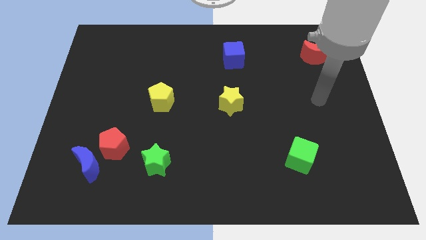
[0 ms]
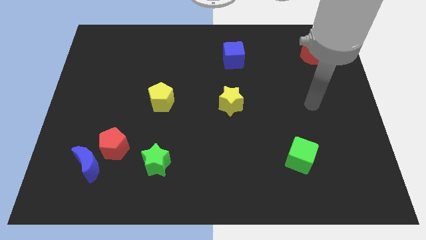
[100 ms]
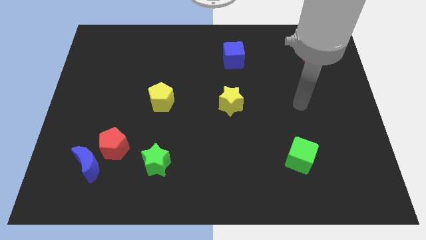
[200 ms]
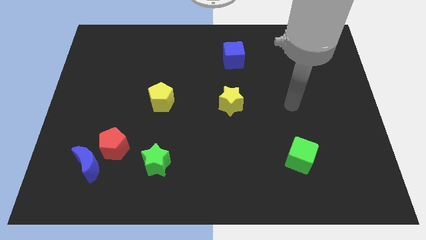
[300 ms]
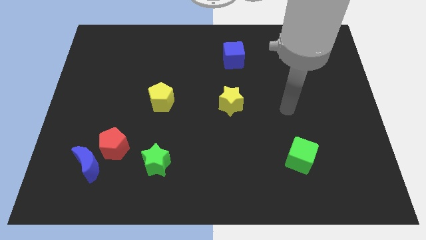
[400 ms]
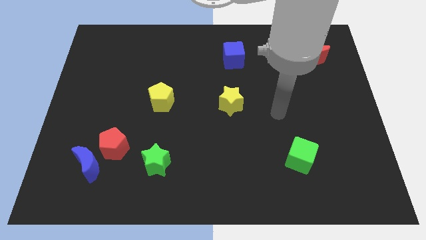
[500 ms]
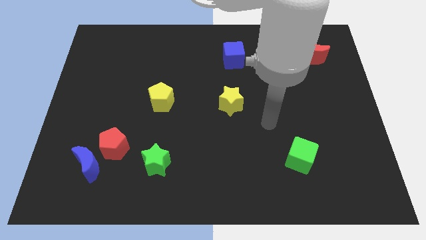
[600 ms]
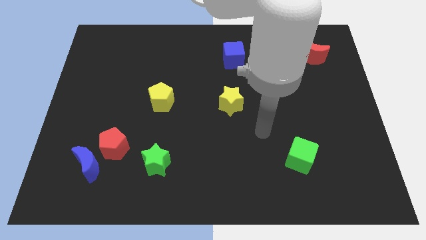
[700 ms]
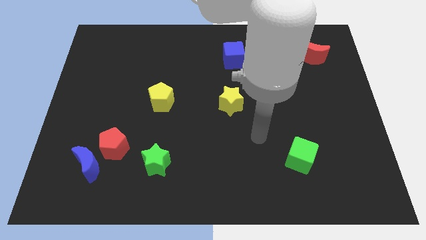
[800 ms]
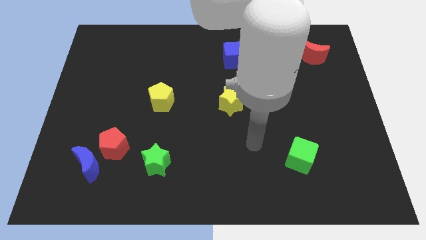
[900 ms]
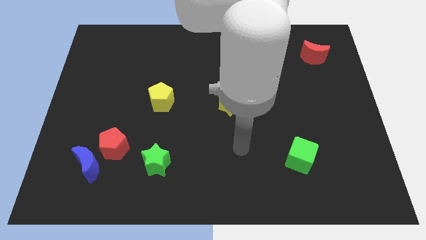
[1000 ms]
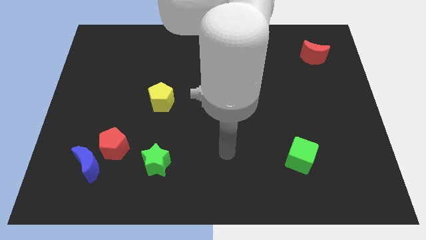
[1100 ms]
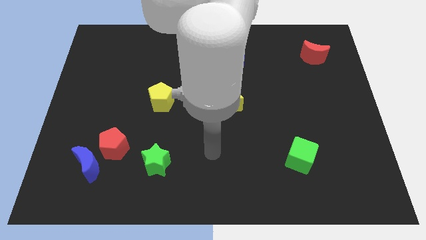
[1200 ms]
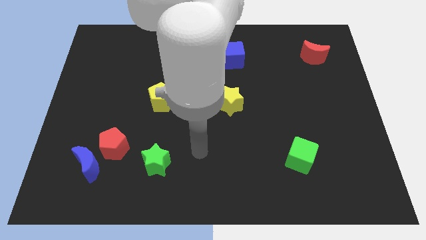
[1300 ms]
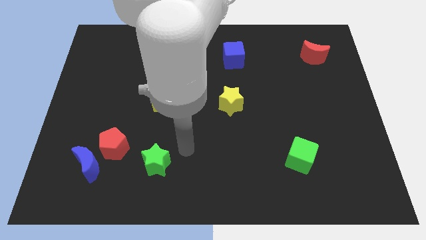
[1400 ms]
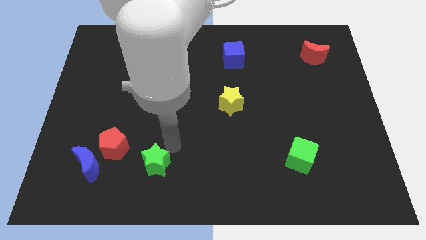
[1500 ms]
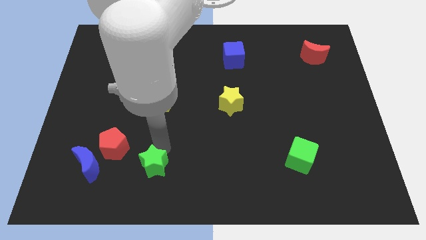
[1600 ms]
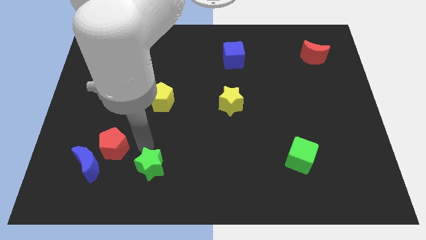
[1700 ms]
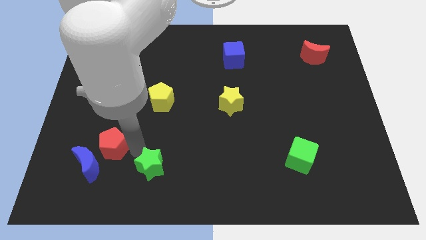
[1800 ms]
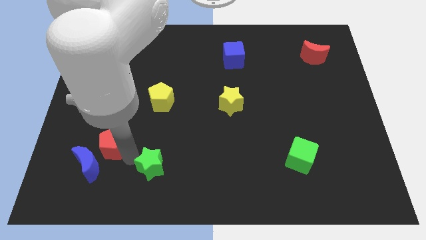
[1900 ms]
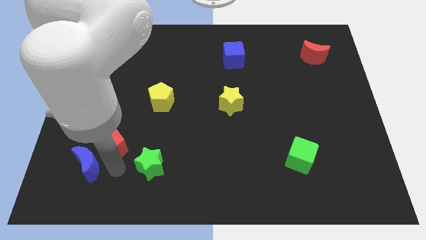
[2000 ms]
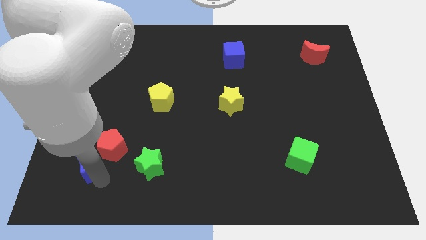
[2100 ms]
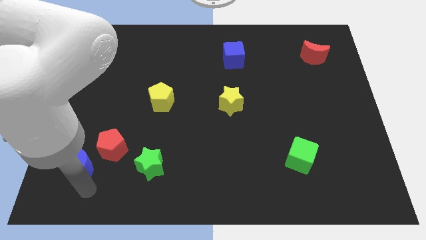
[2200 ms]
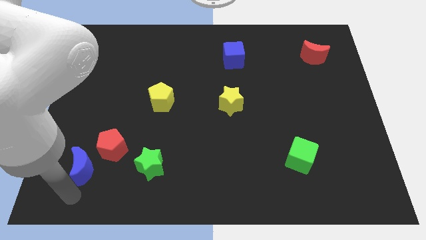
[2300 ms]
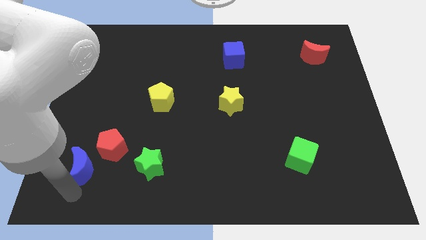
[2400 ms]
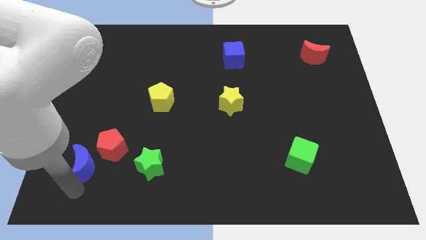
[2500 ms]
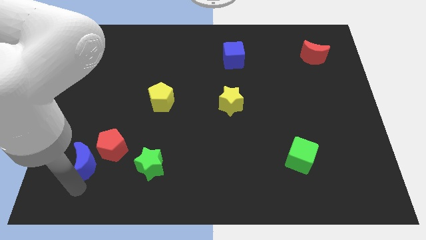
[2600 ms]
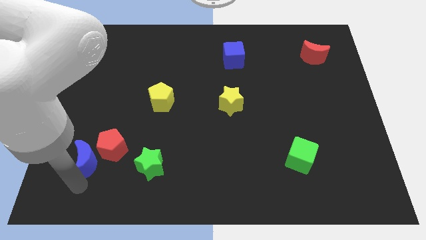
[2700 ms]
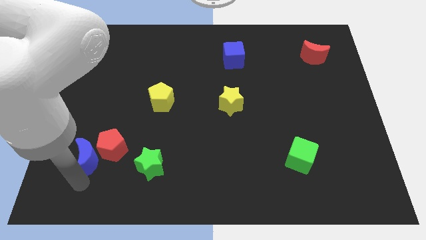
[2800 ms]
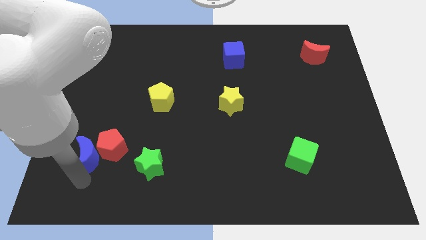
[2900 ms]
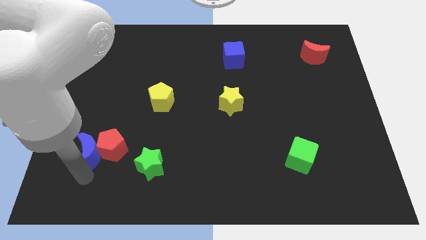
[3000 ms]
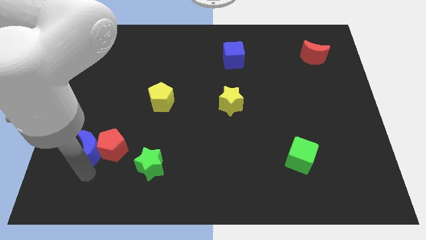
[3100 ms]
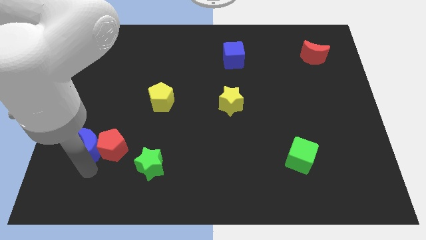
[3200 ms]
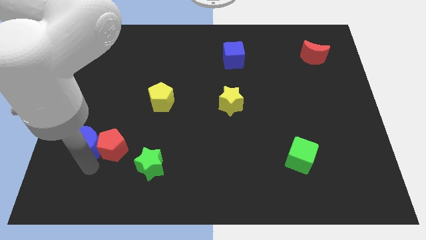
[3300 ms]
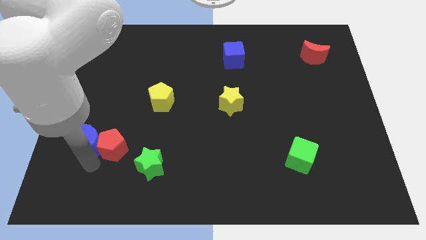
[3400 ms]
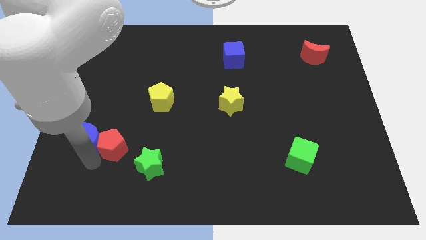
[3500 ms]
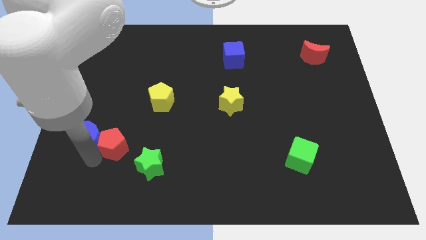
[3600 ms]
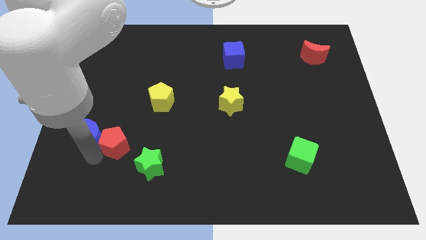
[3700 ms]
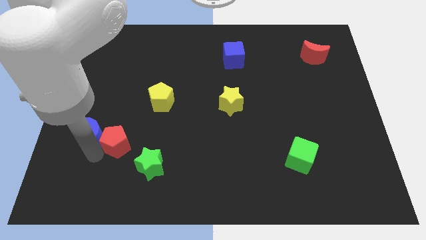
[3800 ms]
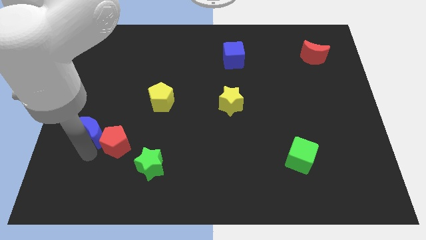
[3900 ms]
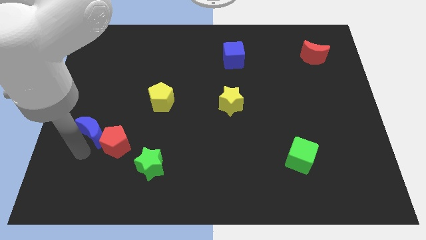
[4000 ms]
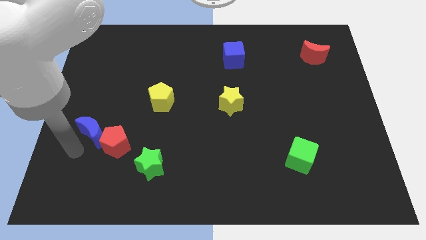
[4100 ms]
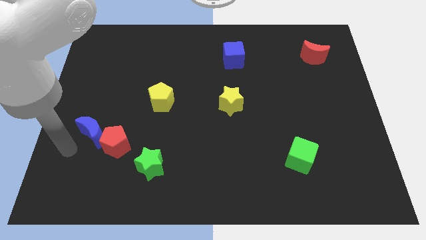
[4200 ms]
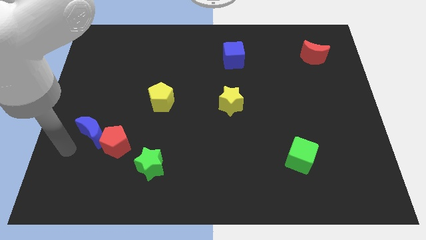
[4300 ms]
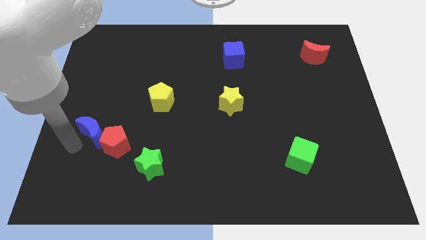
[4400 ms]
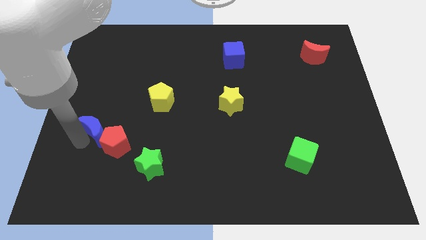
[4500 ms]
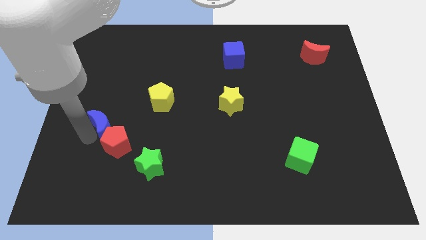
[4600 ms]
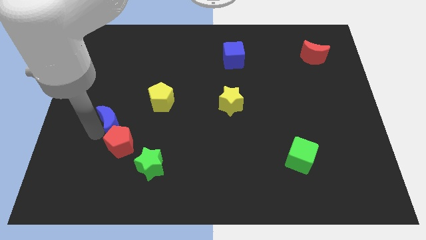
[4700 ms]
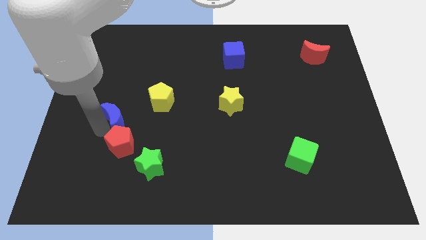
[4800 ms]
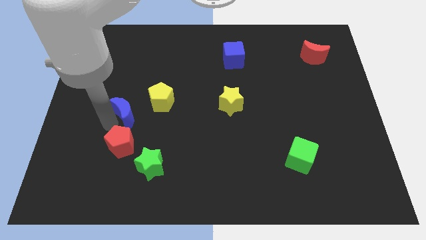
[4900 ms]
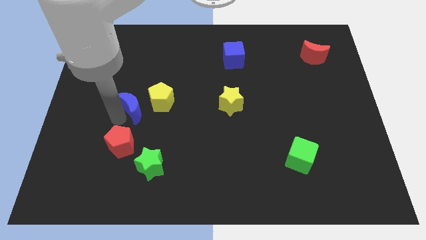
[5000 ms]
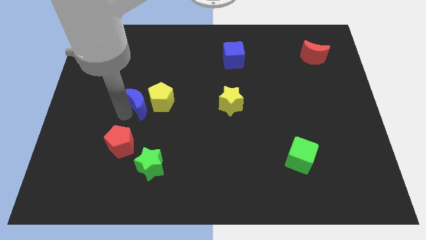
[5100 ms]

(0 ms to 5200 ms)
put the blue moon close to the yellow pentagon

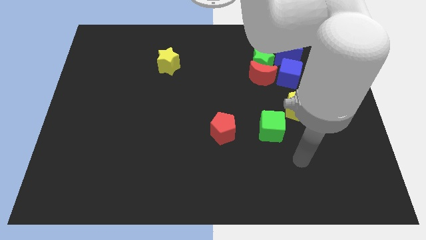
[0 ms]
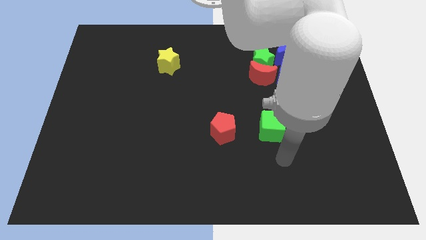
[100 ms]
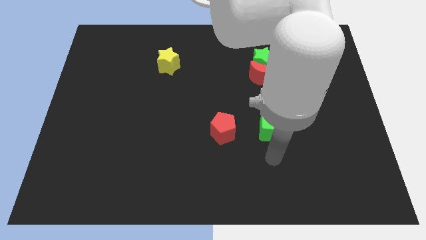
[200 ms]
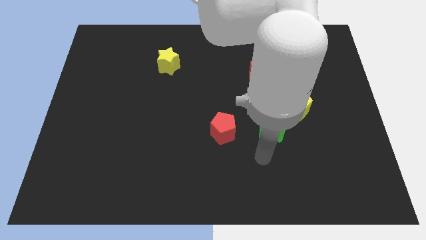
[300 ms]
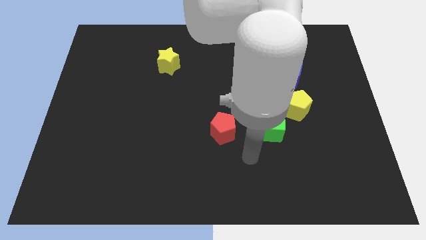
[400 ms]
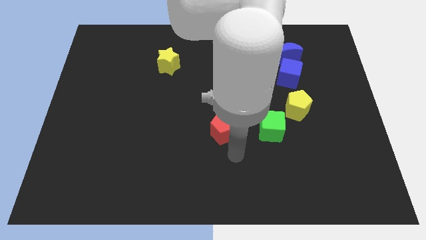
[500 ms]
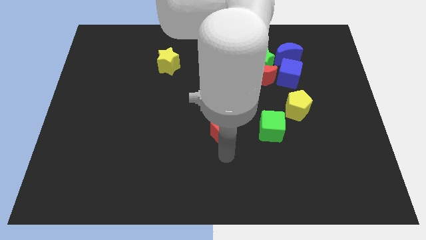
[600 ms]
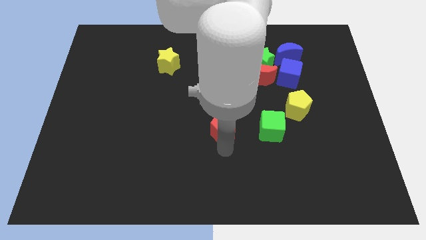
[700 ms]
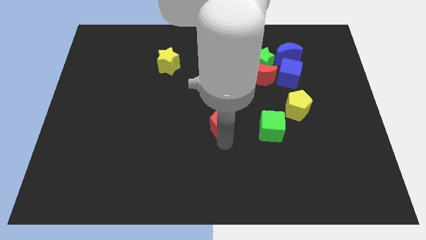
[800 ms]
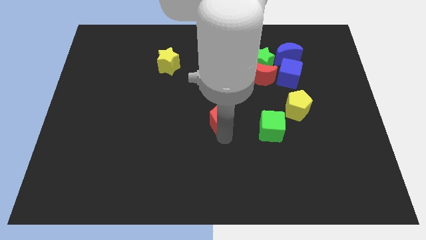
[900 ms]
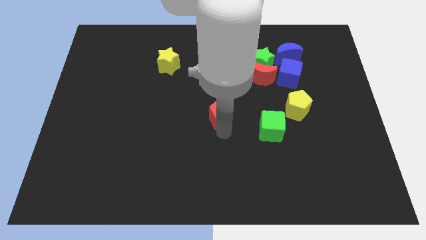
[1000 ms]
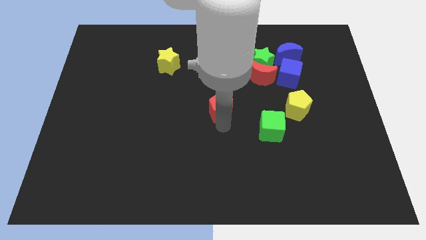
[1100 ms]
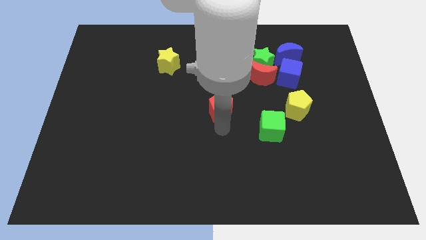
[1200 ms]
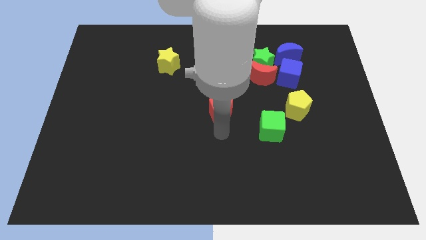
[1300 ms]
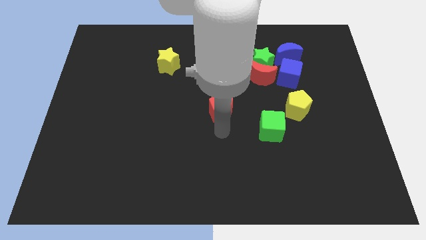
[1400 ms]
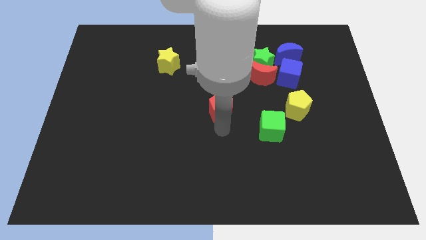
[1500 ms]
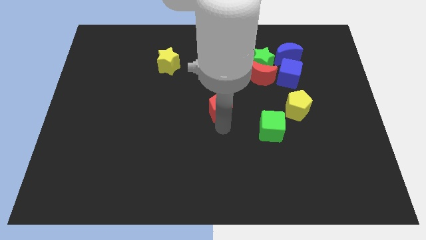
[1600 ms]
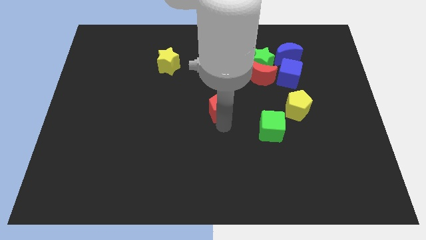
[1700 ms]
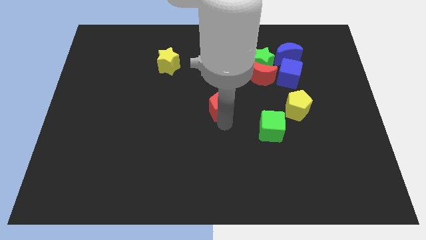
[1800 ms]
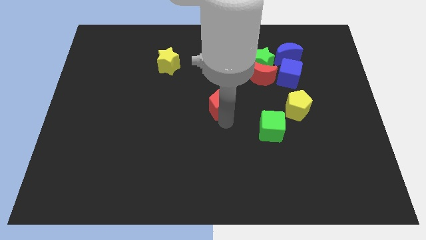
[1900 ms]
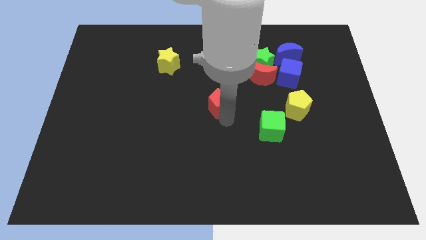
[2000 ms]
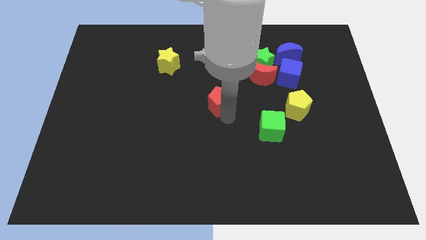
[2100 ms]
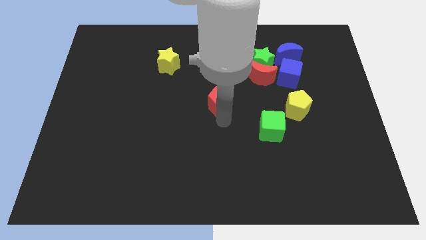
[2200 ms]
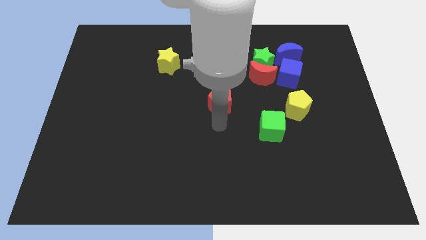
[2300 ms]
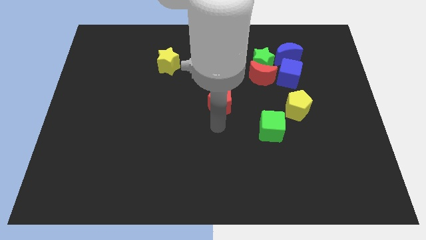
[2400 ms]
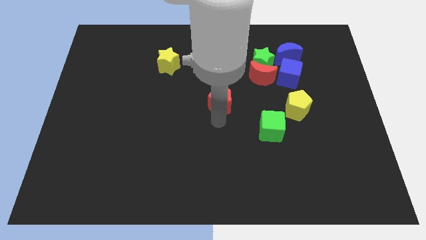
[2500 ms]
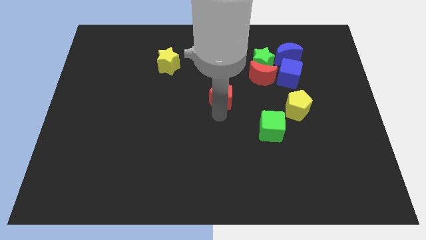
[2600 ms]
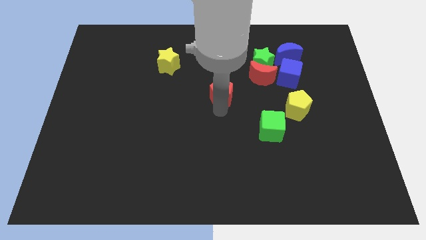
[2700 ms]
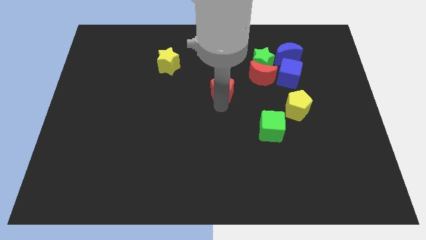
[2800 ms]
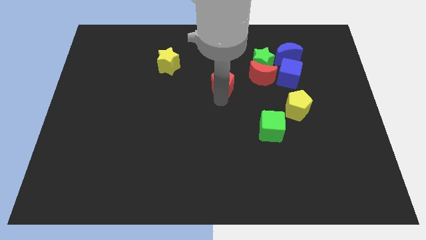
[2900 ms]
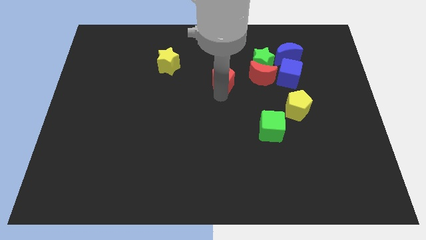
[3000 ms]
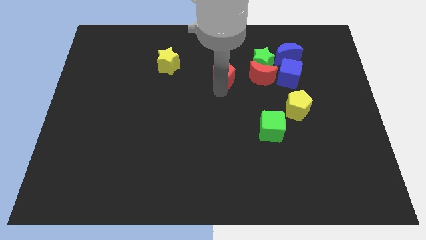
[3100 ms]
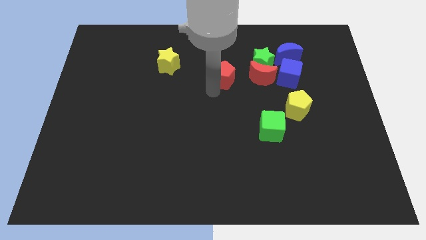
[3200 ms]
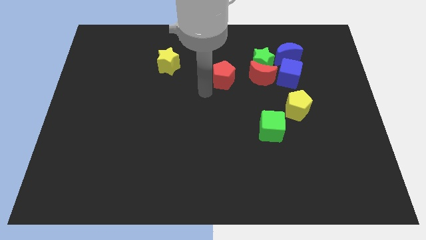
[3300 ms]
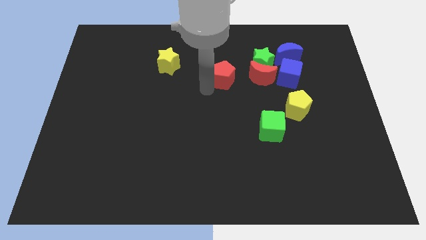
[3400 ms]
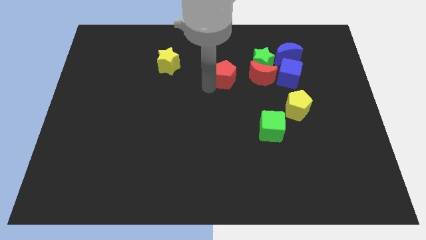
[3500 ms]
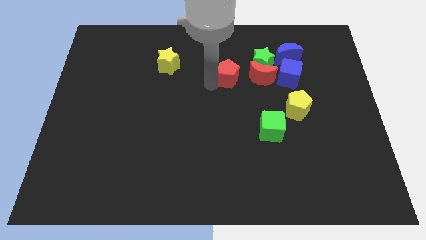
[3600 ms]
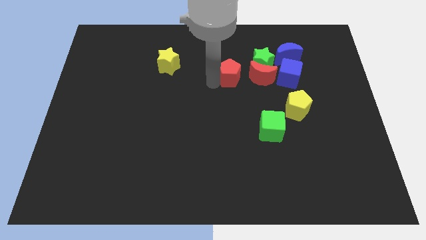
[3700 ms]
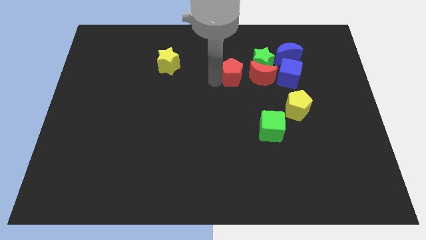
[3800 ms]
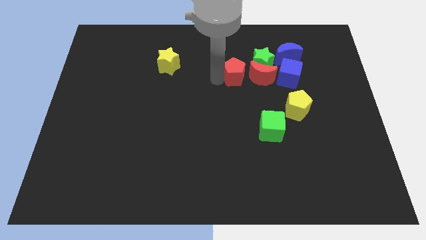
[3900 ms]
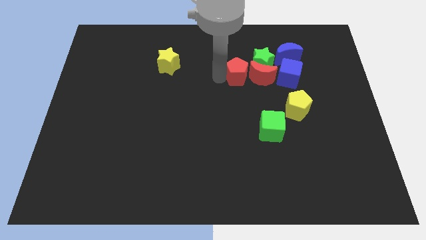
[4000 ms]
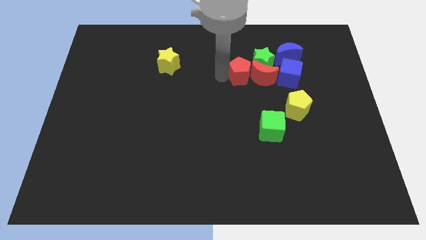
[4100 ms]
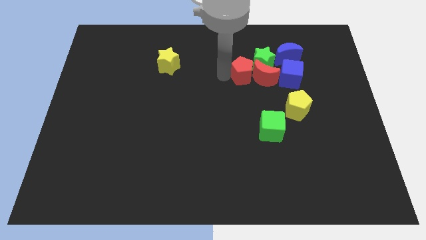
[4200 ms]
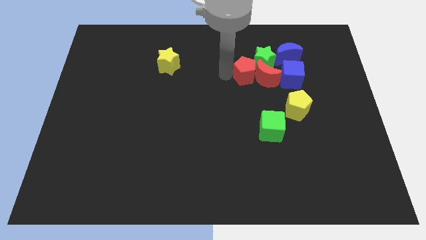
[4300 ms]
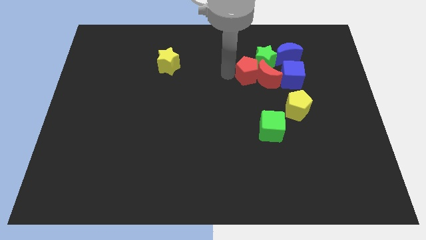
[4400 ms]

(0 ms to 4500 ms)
push the red pentagon to the green star
